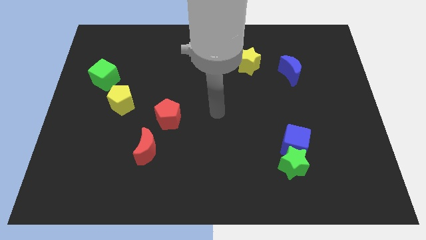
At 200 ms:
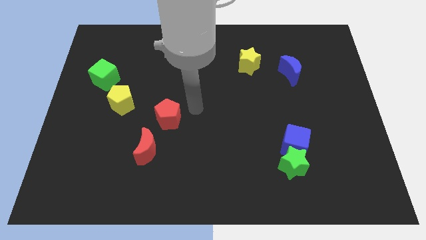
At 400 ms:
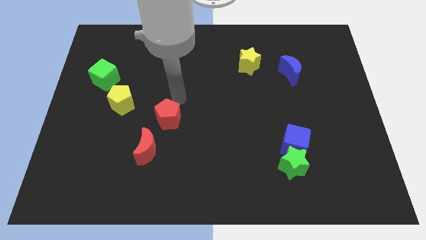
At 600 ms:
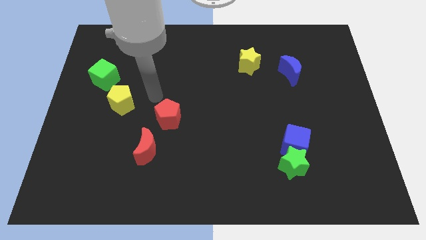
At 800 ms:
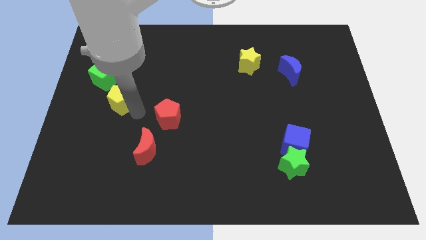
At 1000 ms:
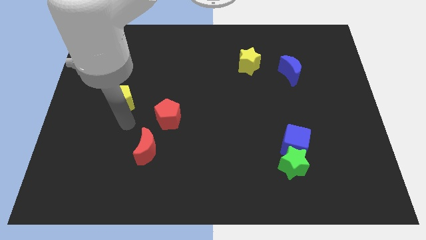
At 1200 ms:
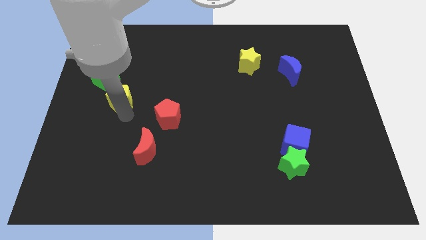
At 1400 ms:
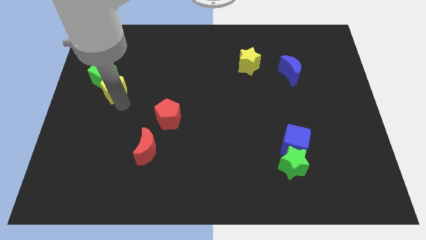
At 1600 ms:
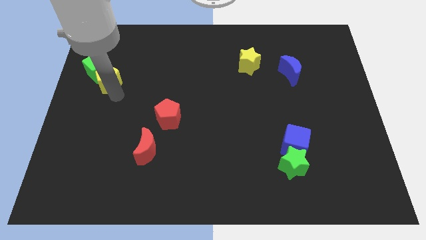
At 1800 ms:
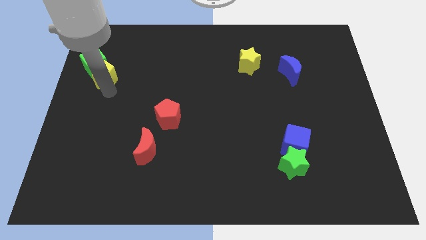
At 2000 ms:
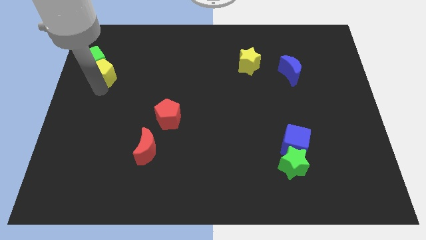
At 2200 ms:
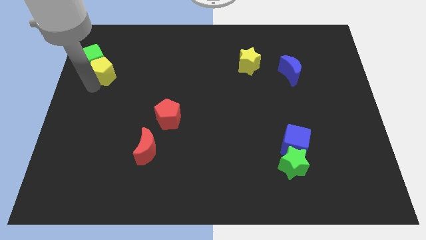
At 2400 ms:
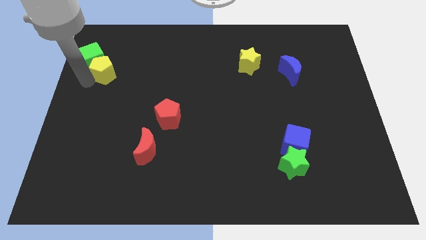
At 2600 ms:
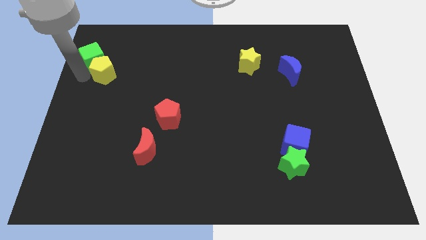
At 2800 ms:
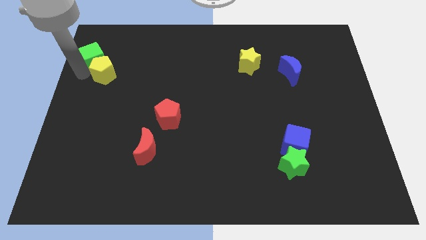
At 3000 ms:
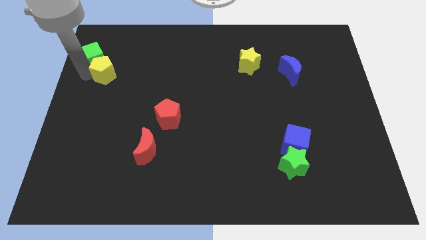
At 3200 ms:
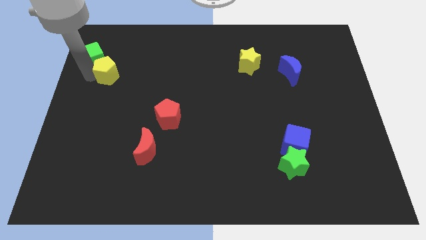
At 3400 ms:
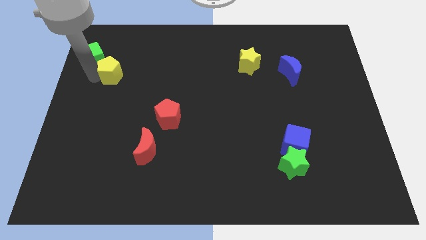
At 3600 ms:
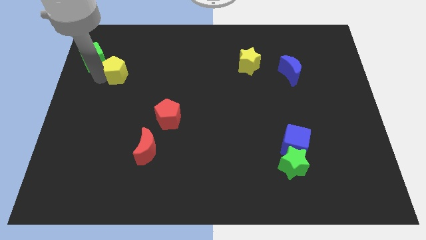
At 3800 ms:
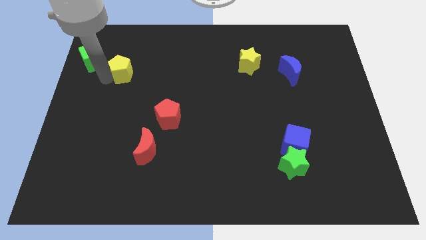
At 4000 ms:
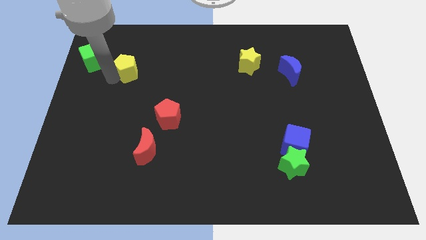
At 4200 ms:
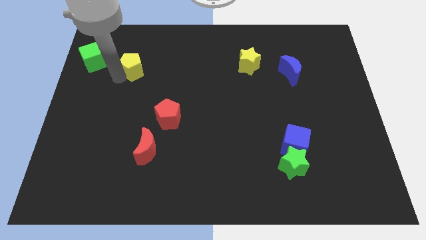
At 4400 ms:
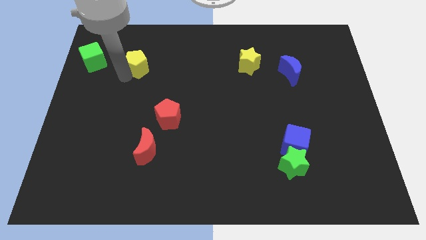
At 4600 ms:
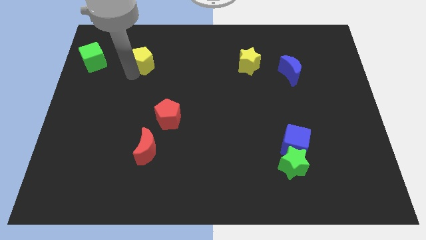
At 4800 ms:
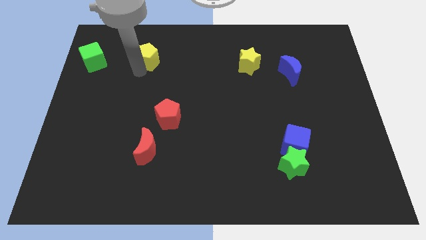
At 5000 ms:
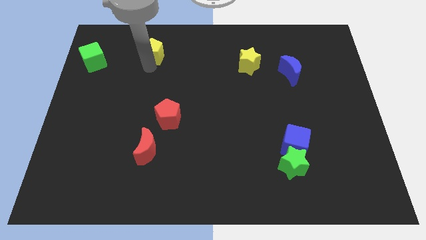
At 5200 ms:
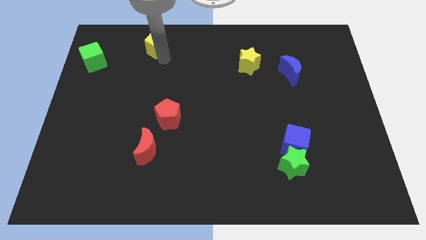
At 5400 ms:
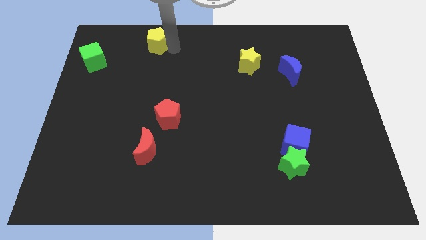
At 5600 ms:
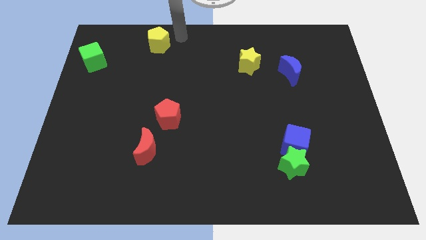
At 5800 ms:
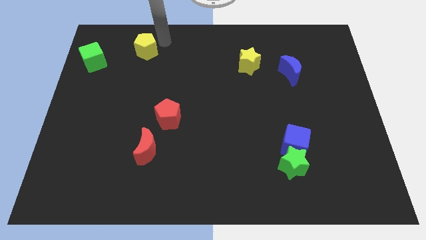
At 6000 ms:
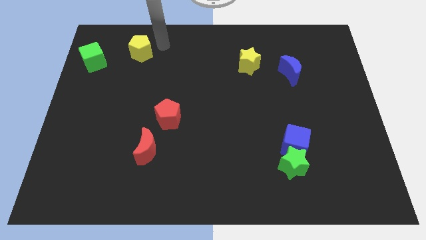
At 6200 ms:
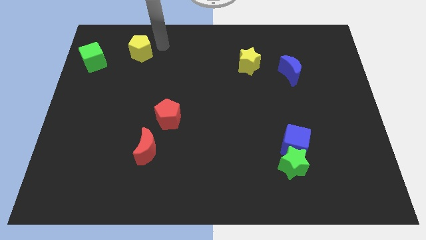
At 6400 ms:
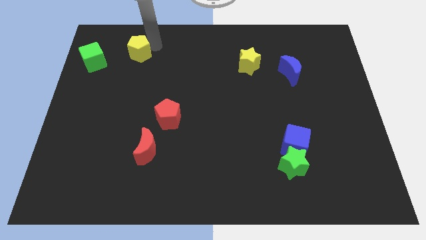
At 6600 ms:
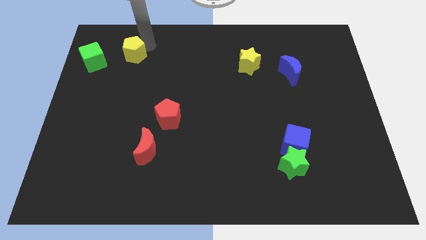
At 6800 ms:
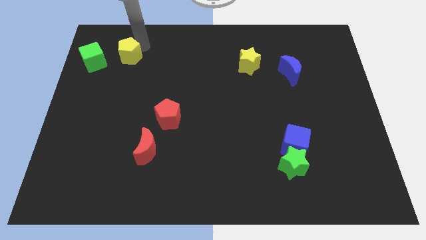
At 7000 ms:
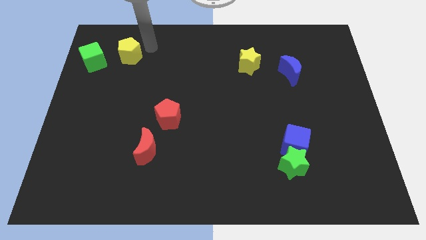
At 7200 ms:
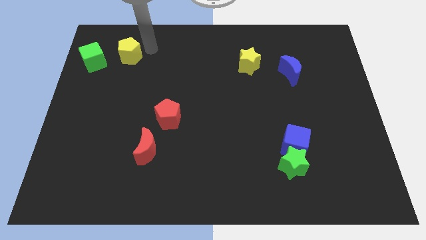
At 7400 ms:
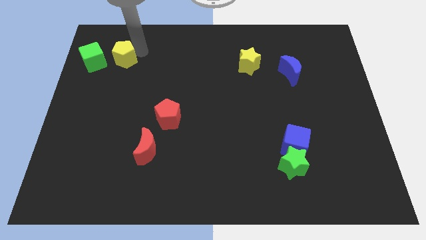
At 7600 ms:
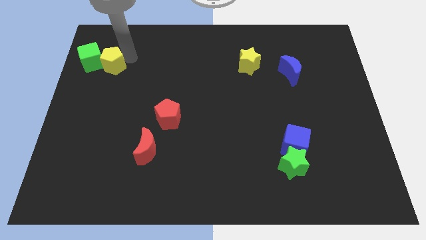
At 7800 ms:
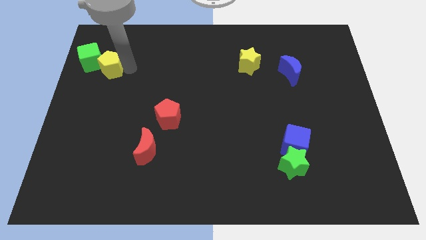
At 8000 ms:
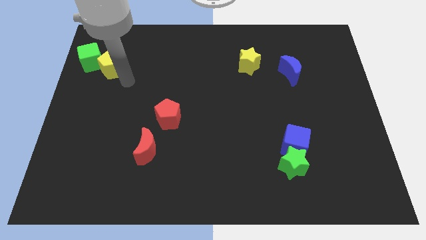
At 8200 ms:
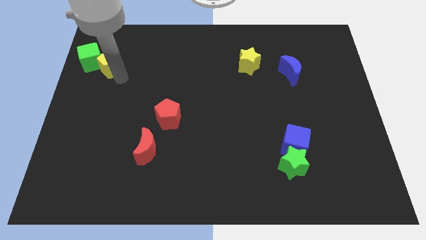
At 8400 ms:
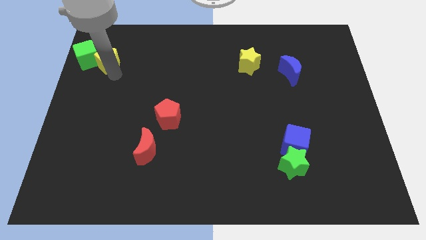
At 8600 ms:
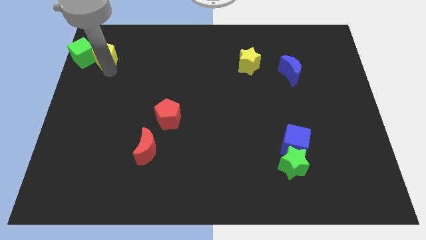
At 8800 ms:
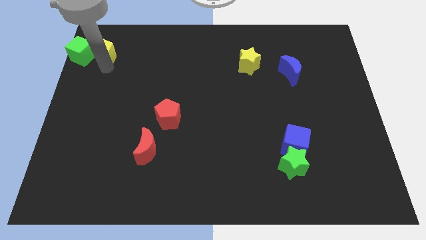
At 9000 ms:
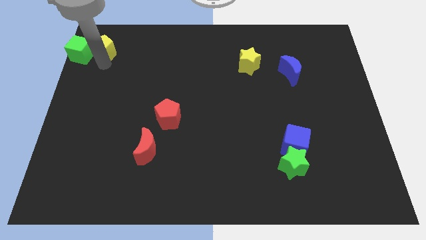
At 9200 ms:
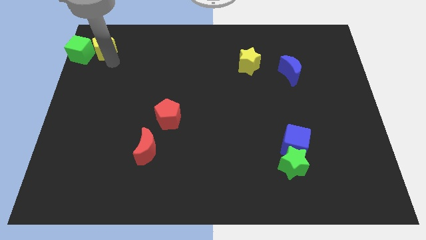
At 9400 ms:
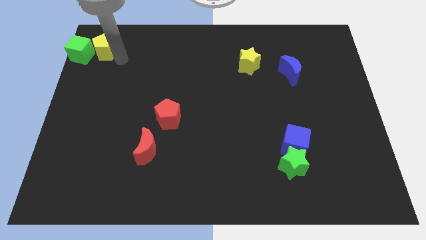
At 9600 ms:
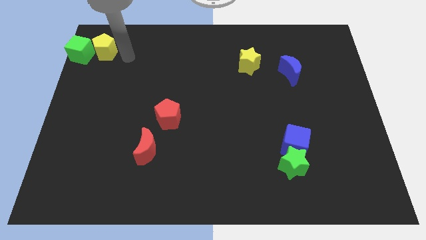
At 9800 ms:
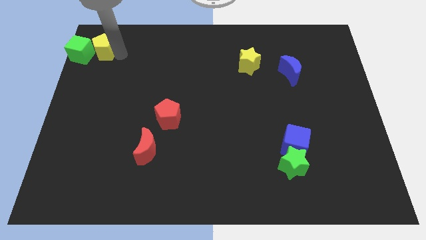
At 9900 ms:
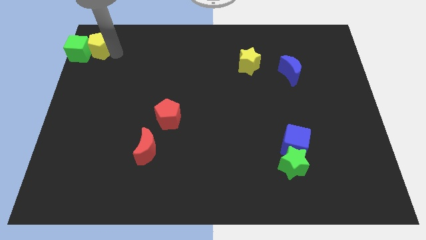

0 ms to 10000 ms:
slide the yellow pentagon to the top left of the board

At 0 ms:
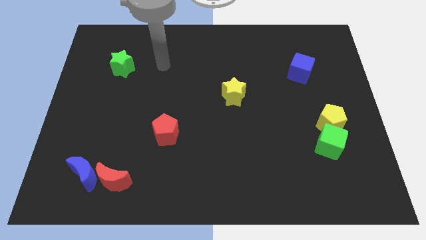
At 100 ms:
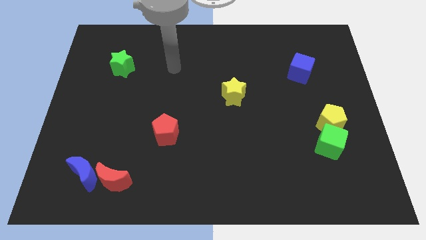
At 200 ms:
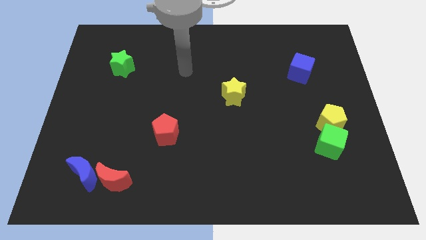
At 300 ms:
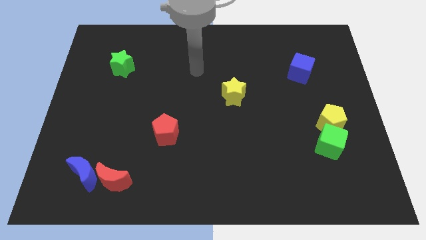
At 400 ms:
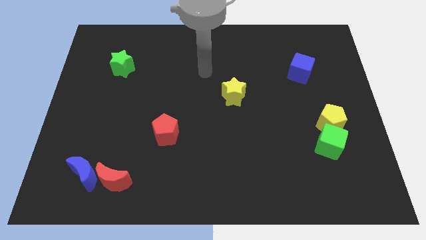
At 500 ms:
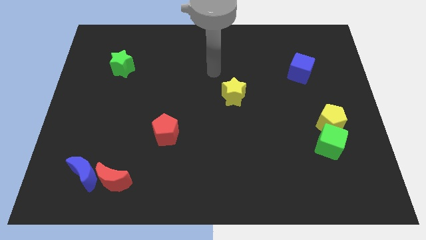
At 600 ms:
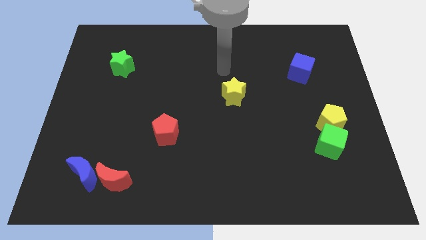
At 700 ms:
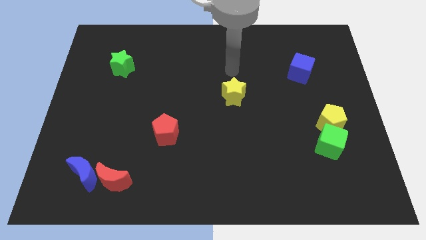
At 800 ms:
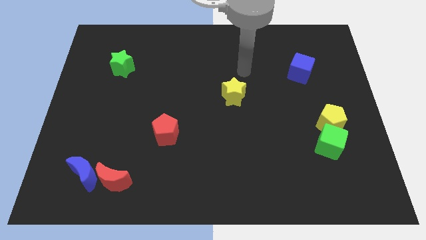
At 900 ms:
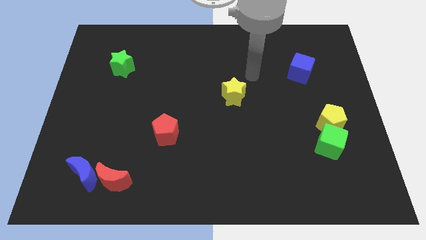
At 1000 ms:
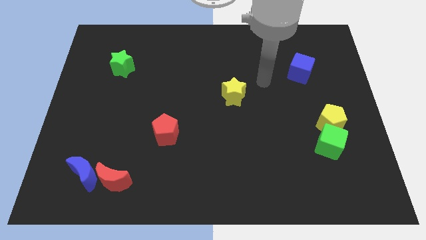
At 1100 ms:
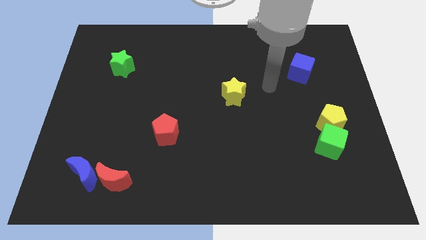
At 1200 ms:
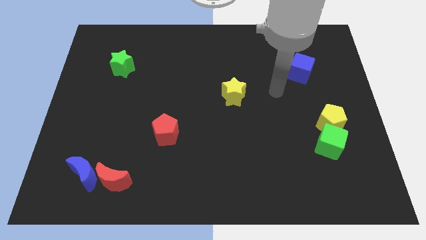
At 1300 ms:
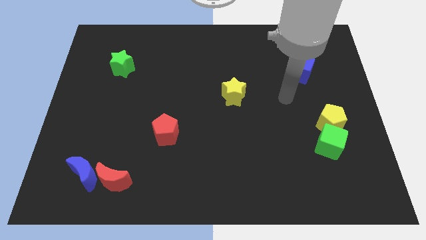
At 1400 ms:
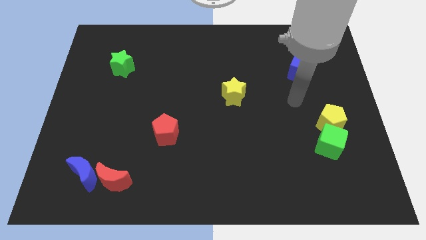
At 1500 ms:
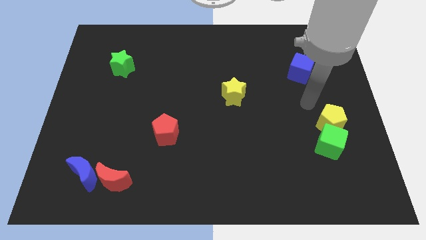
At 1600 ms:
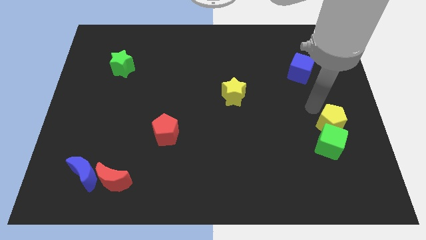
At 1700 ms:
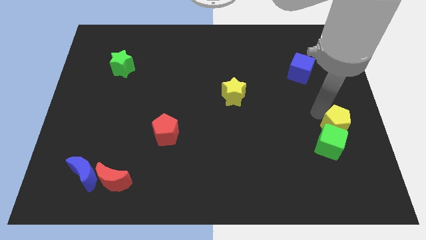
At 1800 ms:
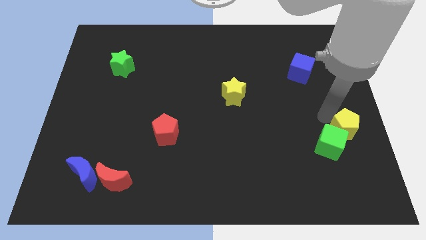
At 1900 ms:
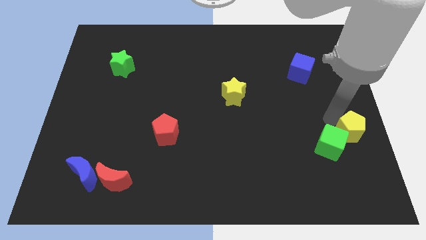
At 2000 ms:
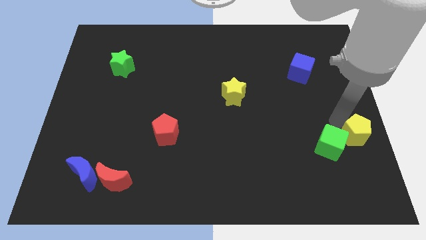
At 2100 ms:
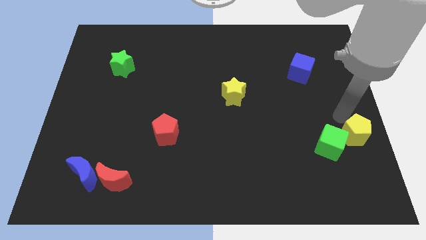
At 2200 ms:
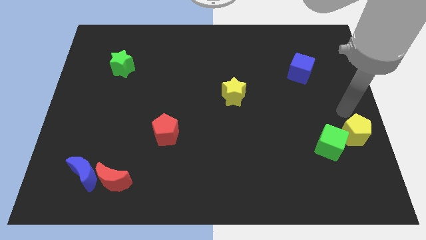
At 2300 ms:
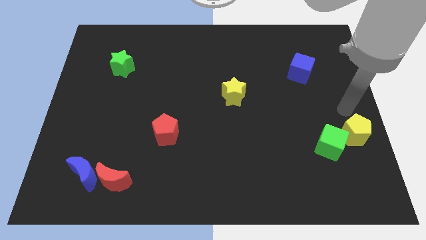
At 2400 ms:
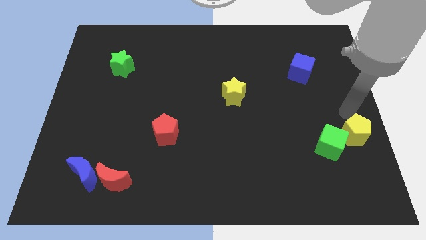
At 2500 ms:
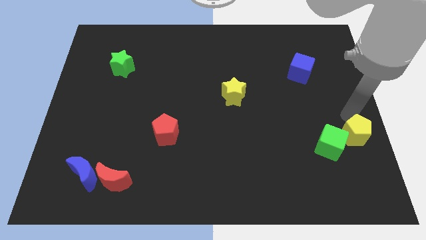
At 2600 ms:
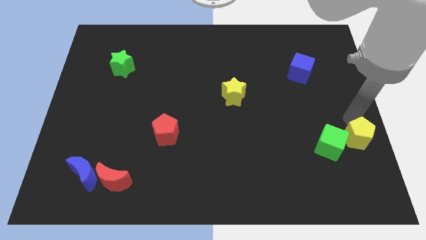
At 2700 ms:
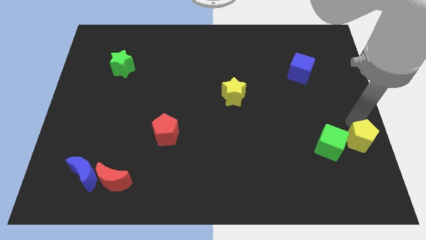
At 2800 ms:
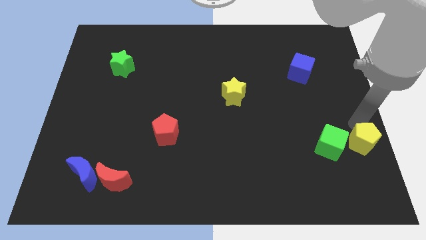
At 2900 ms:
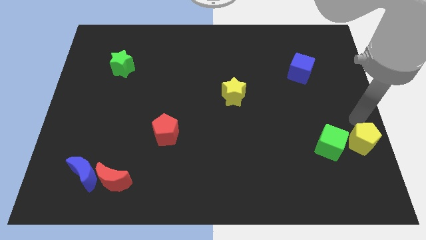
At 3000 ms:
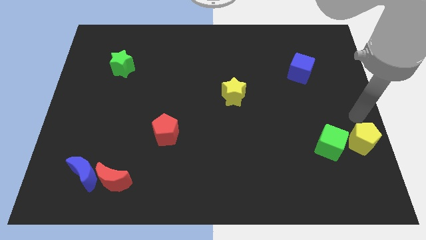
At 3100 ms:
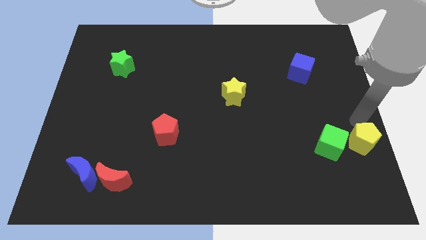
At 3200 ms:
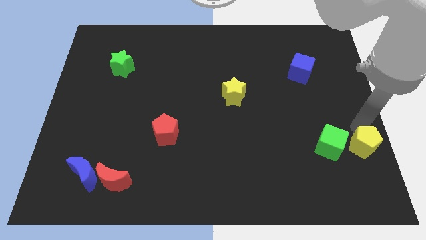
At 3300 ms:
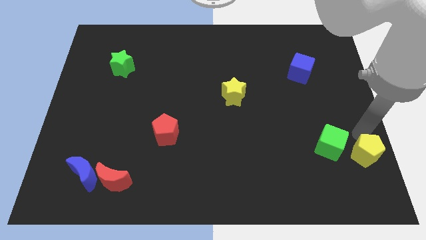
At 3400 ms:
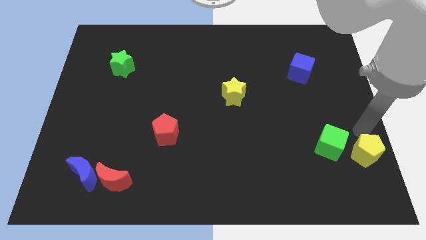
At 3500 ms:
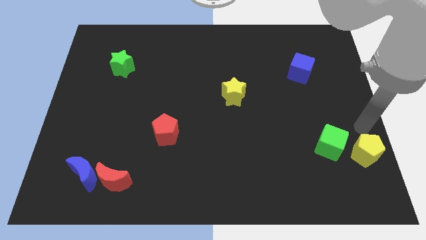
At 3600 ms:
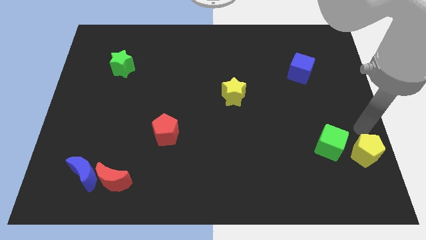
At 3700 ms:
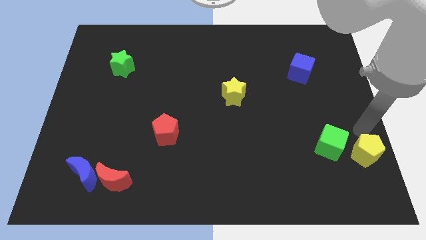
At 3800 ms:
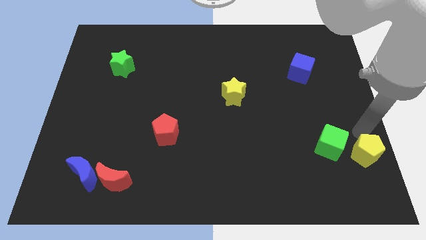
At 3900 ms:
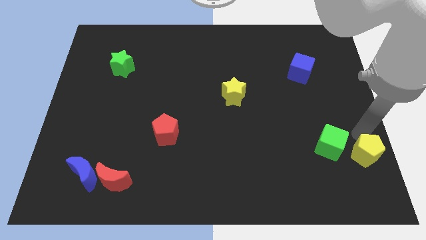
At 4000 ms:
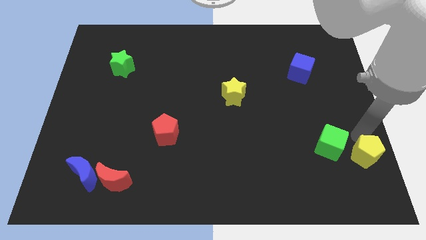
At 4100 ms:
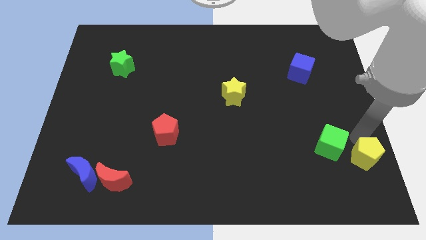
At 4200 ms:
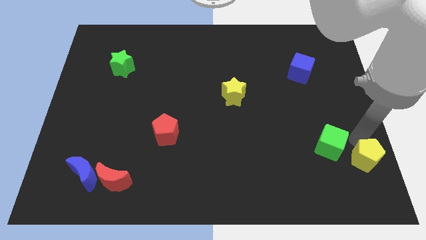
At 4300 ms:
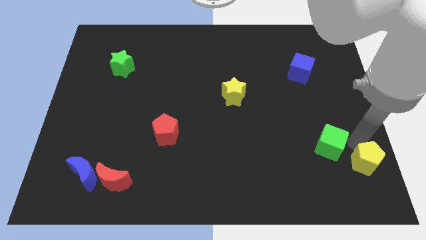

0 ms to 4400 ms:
move the yellow pentagon to the bottom right corner
